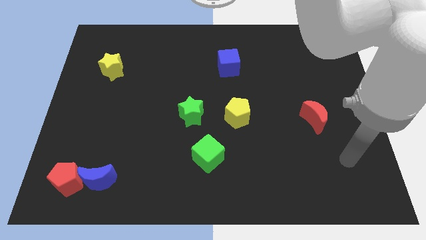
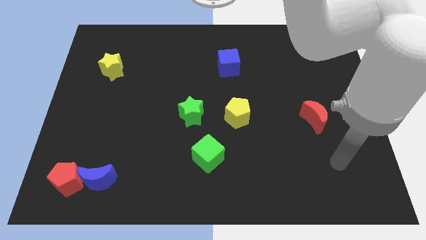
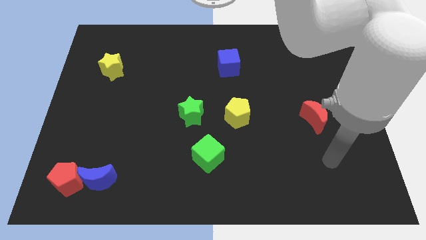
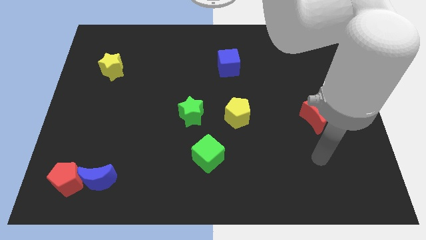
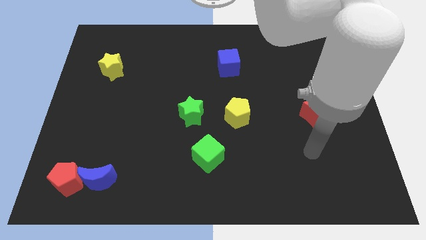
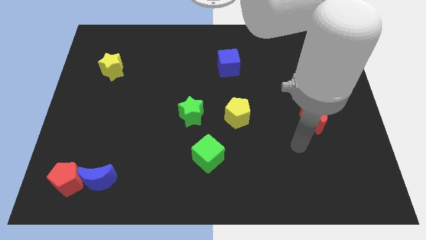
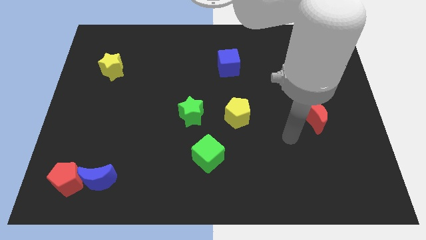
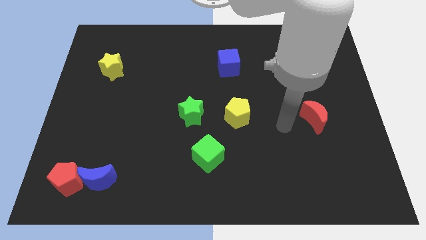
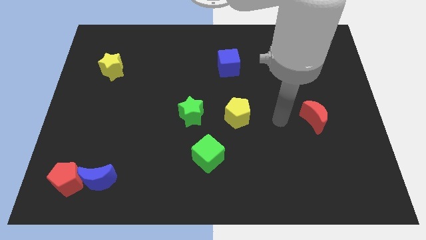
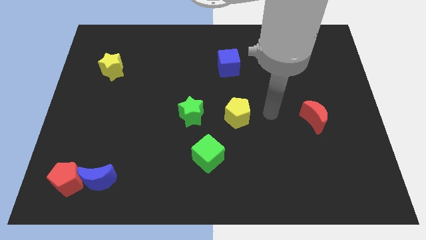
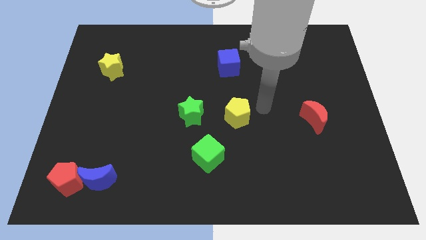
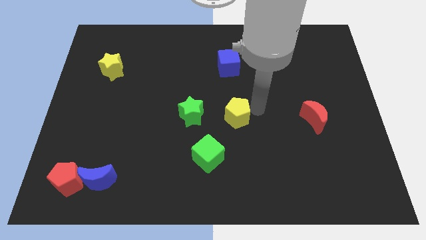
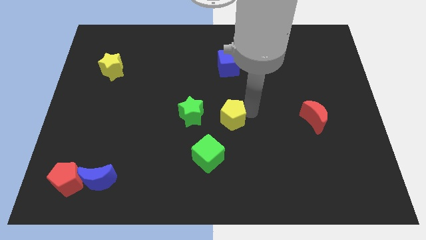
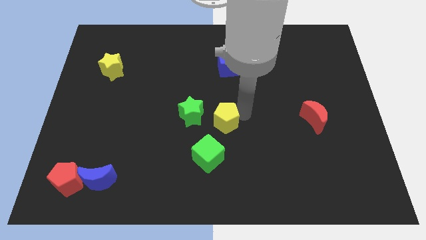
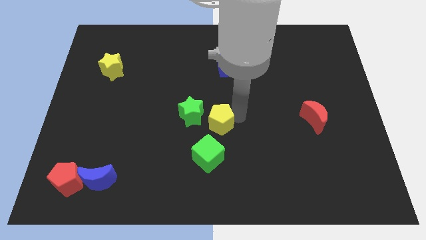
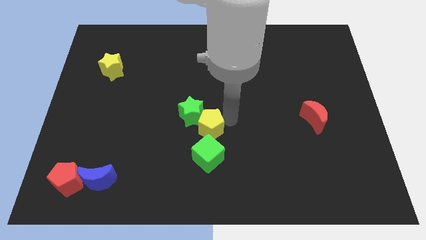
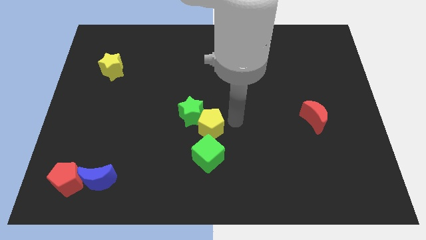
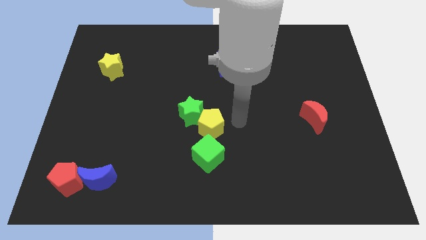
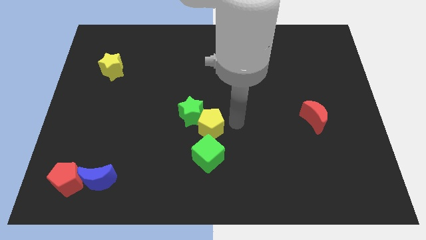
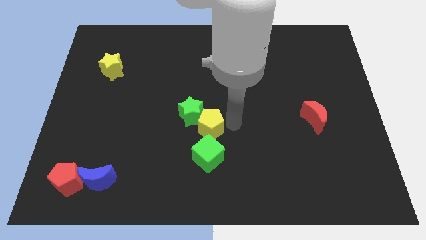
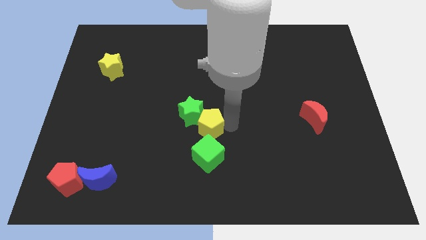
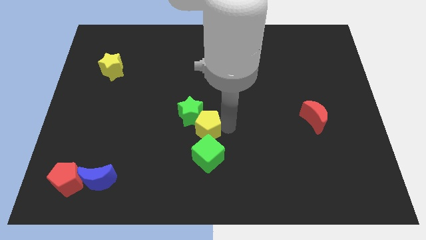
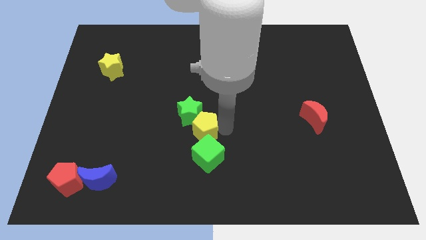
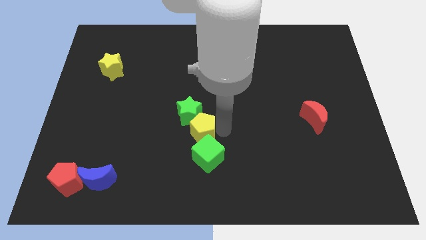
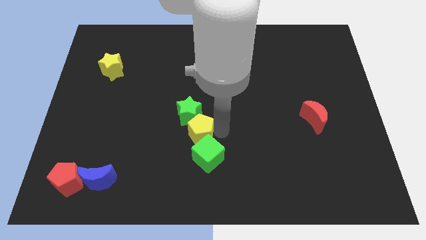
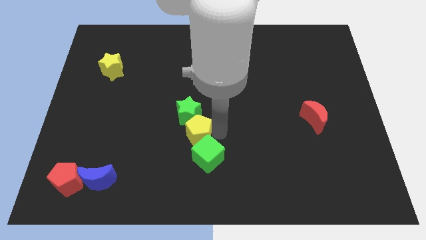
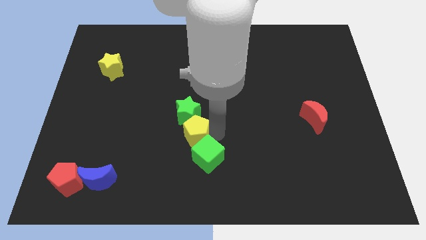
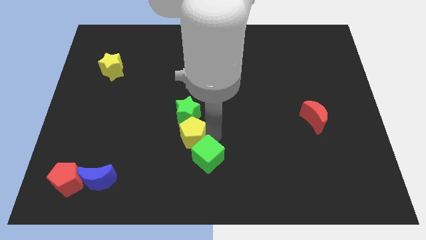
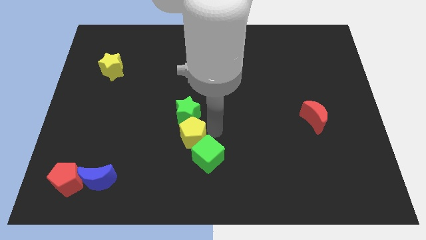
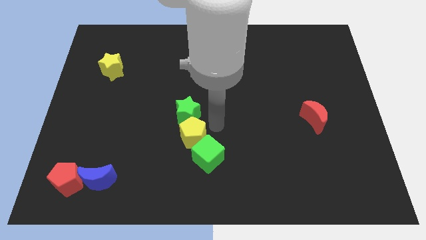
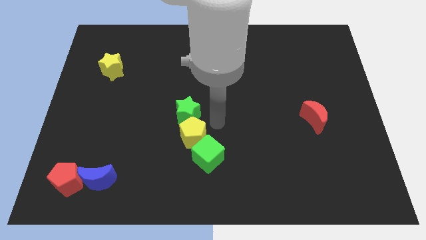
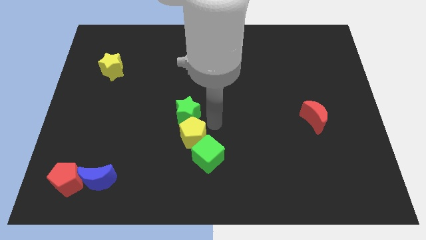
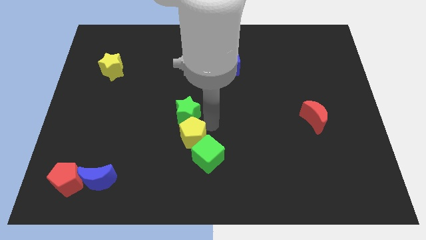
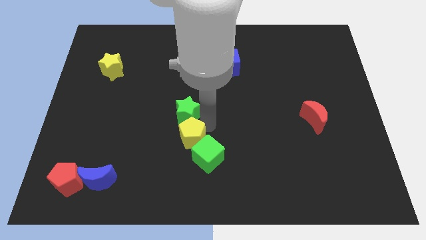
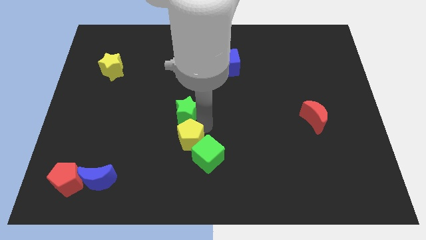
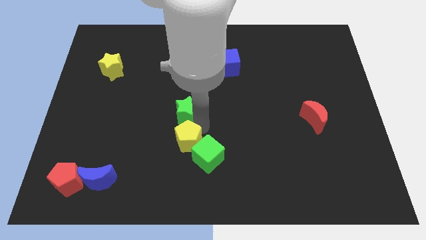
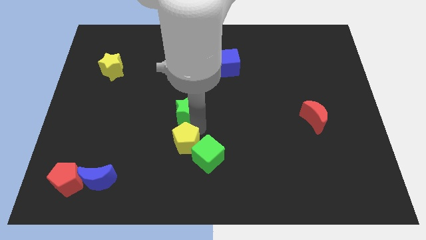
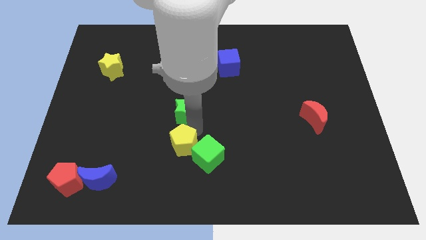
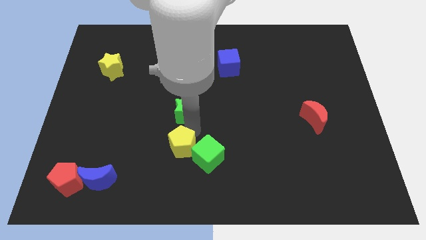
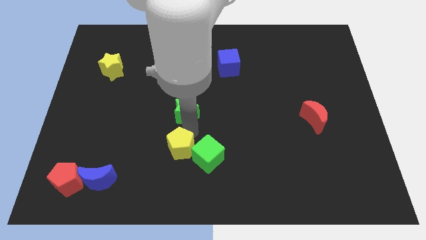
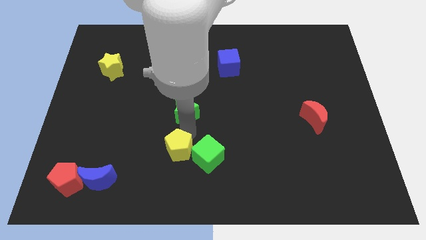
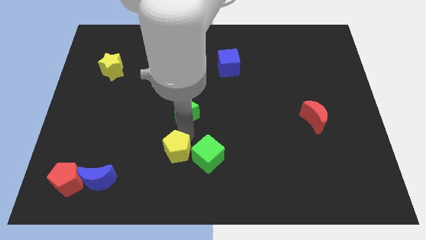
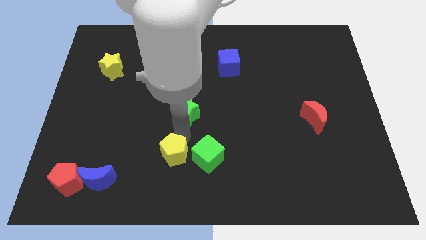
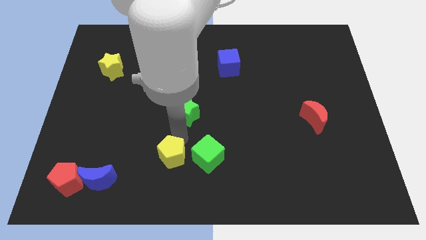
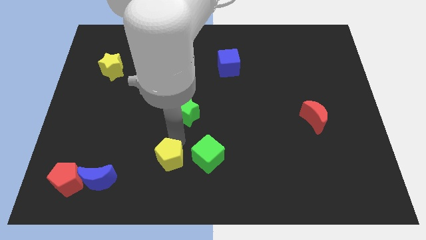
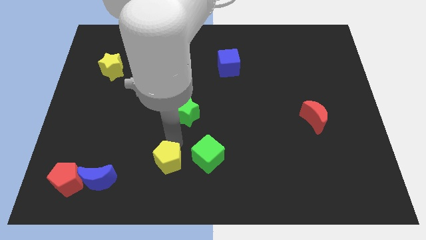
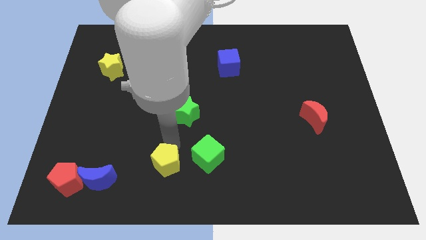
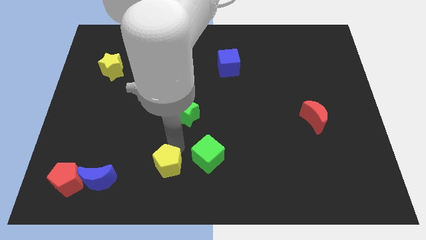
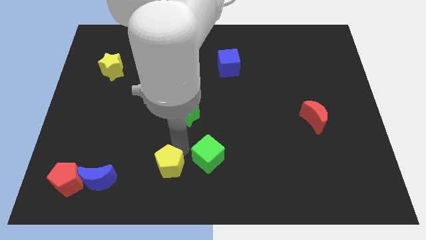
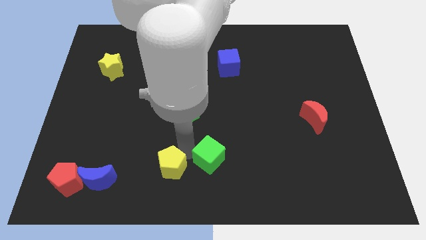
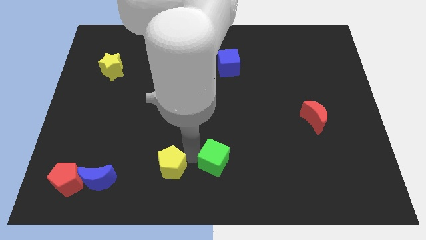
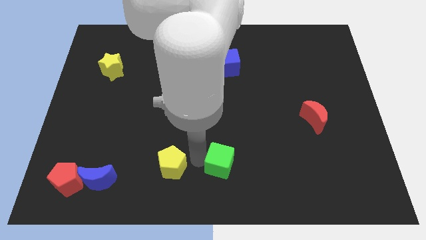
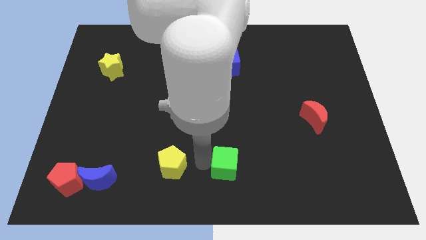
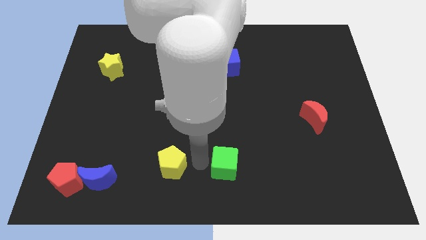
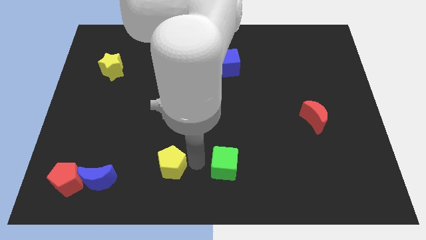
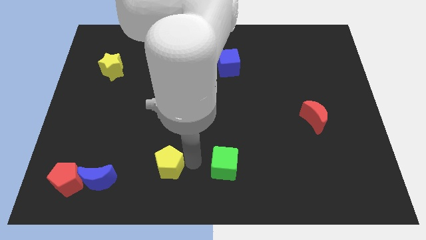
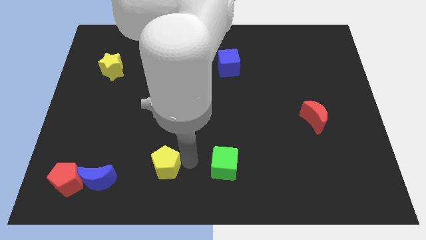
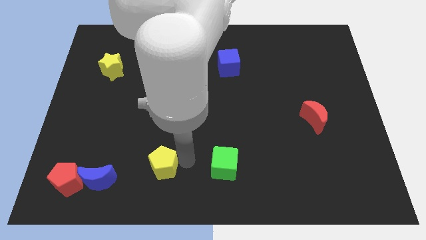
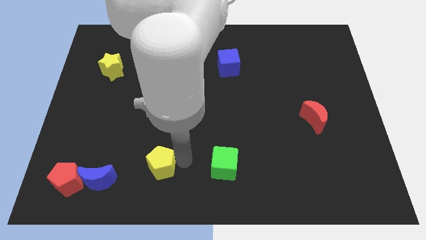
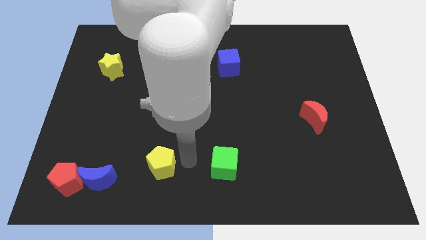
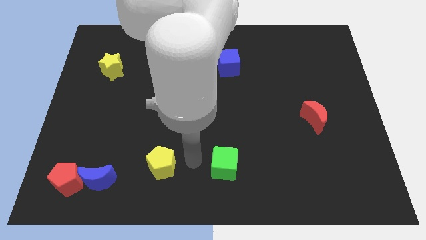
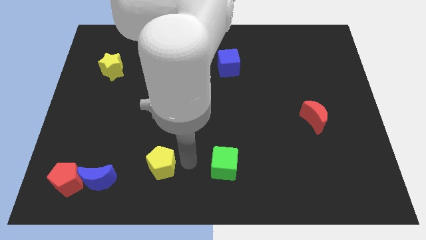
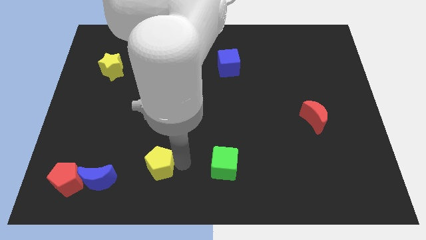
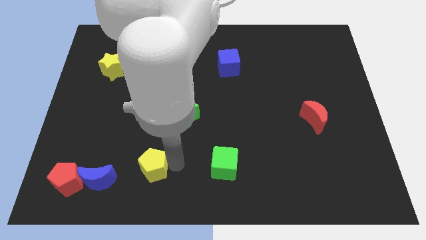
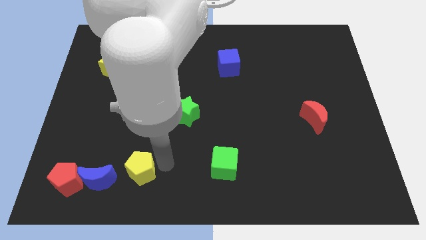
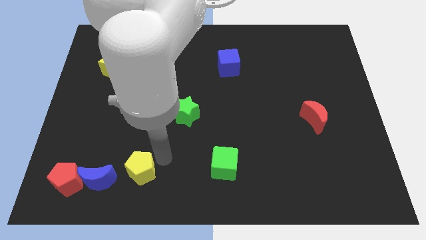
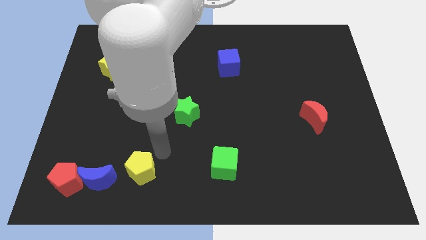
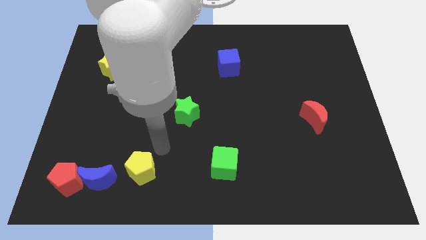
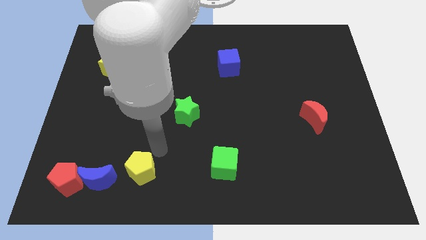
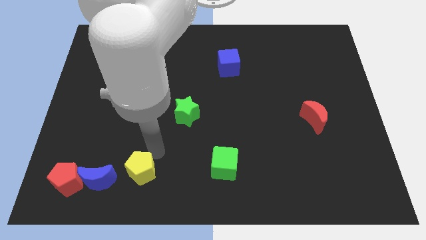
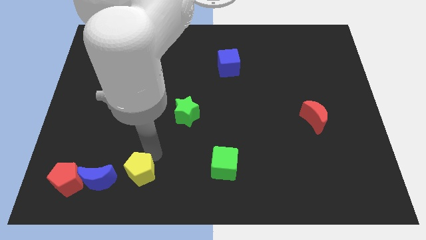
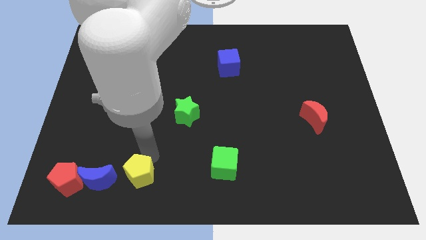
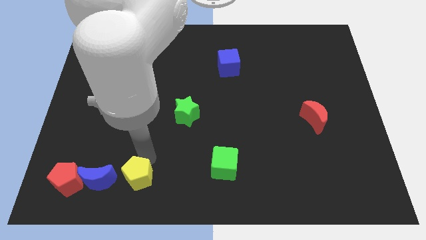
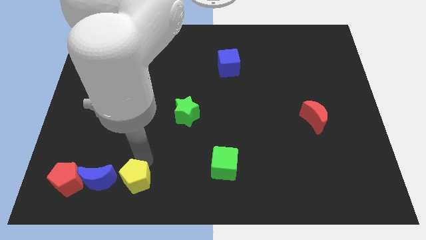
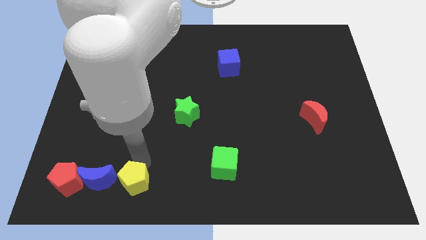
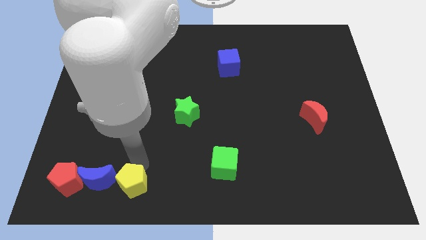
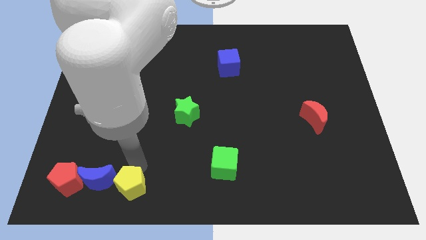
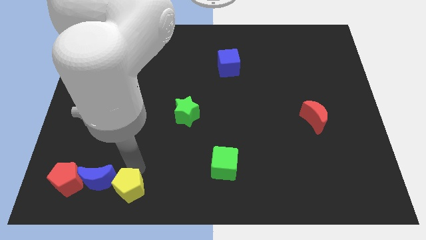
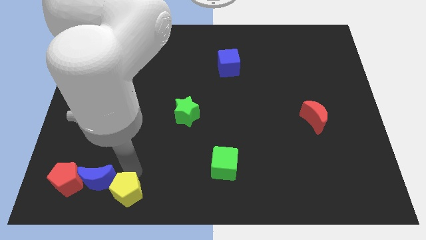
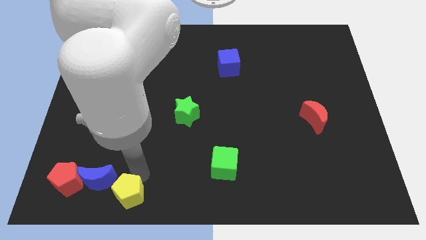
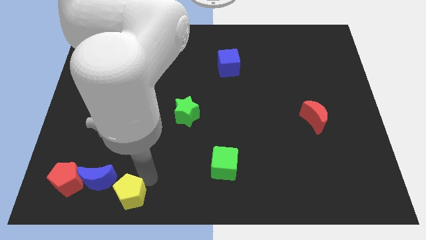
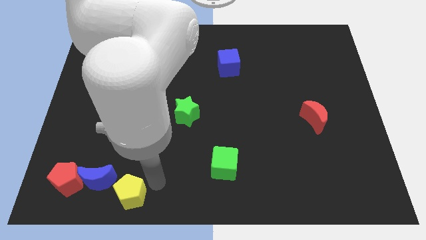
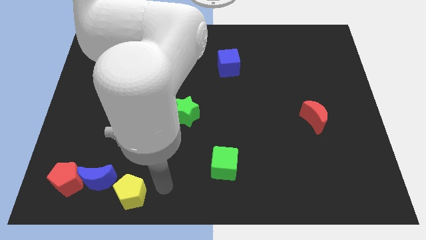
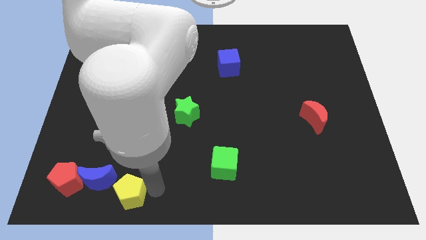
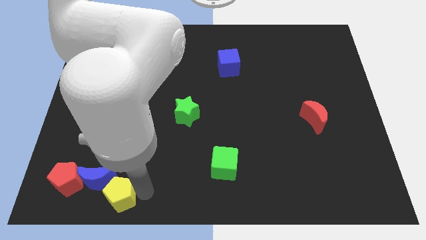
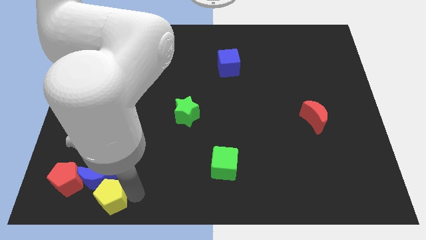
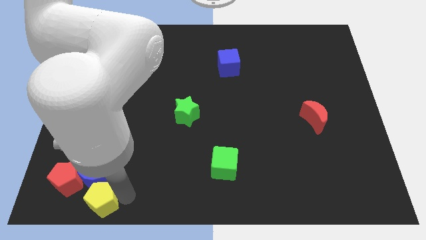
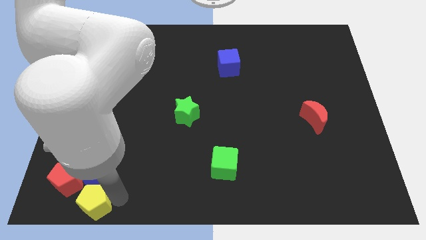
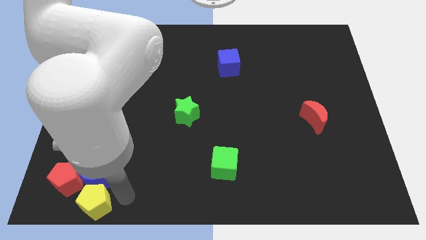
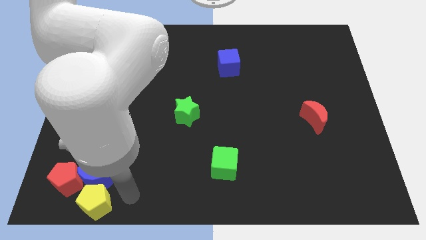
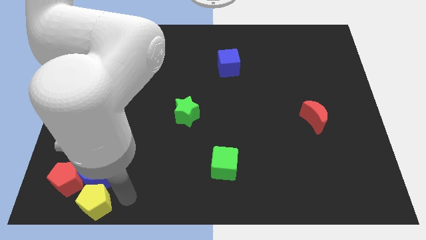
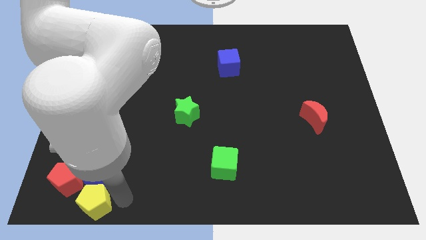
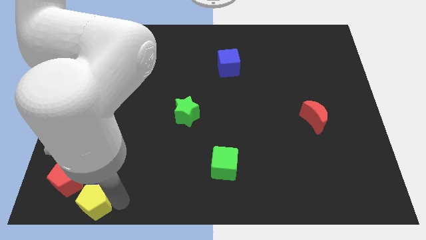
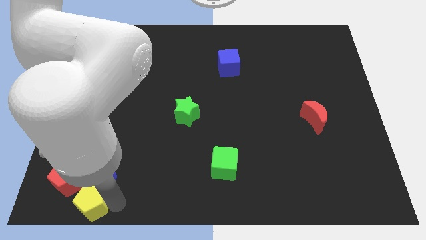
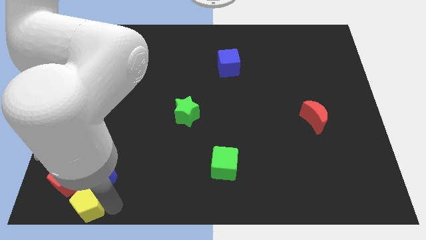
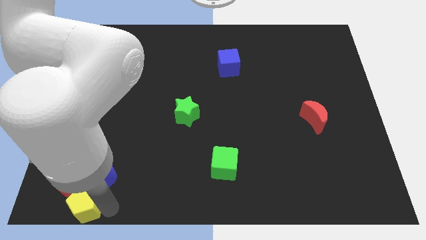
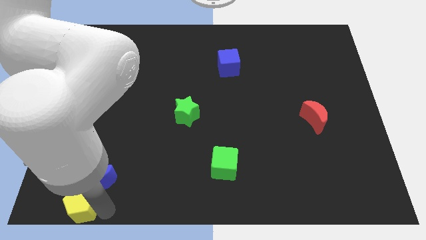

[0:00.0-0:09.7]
slide the yellow pentagon to the lower left corner
